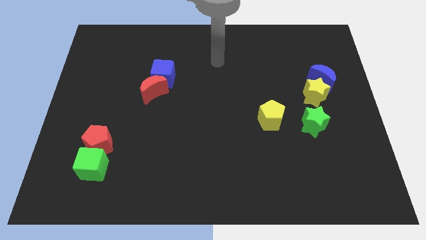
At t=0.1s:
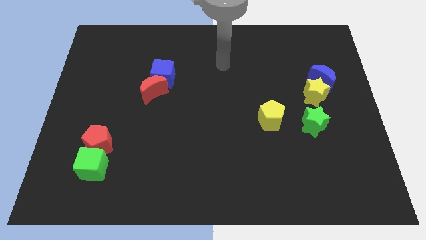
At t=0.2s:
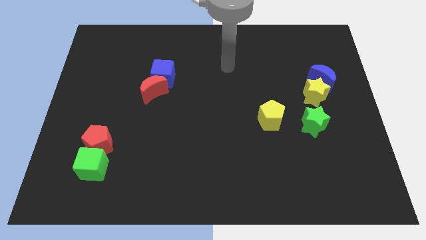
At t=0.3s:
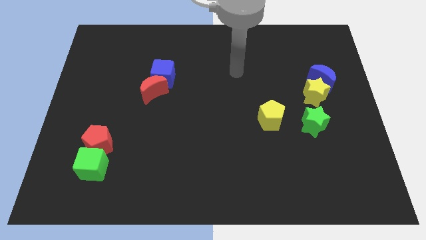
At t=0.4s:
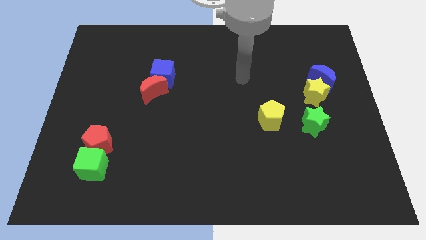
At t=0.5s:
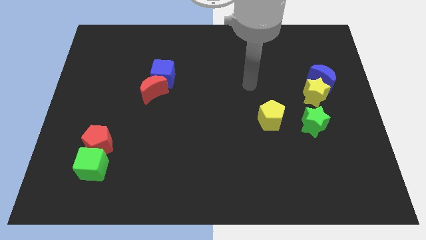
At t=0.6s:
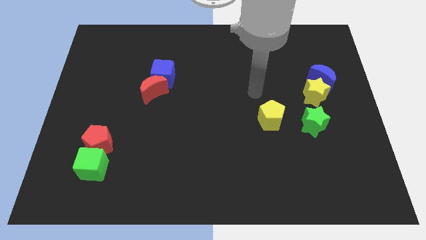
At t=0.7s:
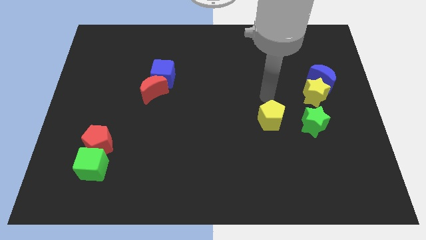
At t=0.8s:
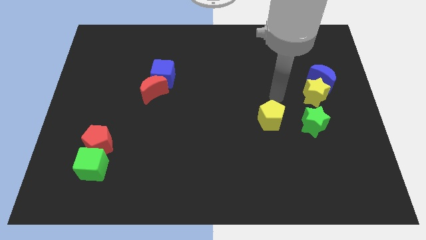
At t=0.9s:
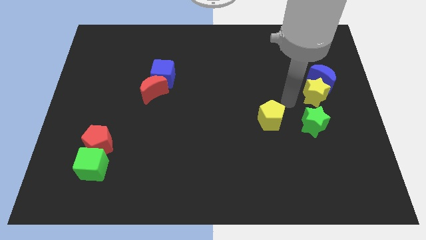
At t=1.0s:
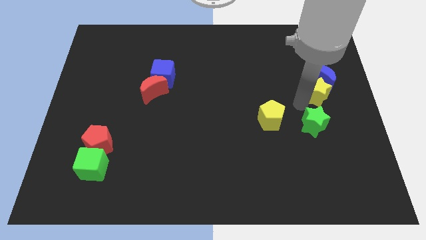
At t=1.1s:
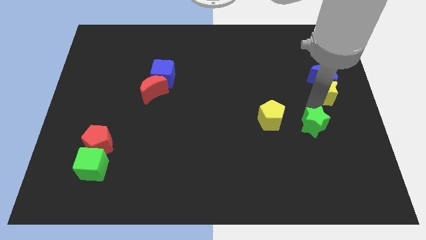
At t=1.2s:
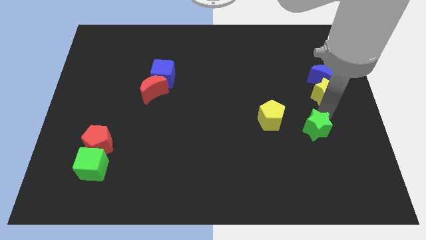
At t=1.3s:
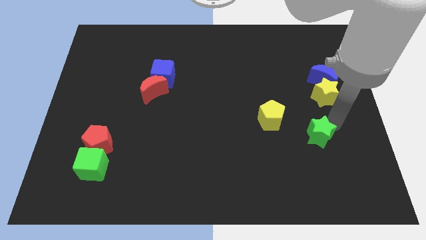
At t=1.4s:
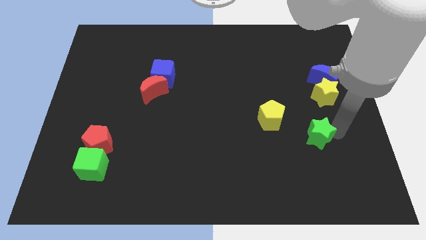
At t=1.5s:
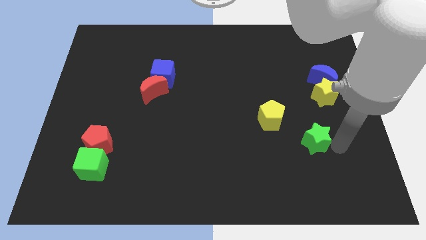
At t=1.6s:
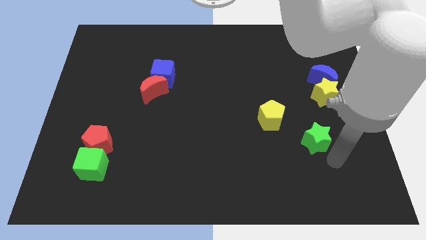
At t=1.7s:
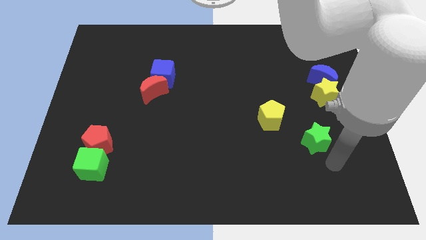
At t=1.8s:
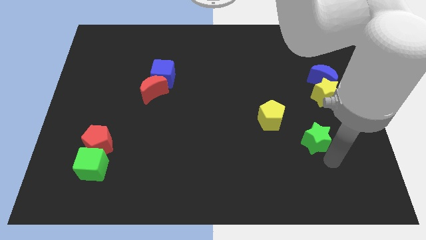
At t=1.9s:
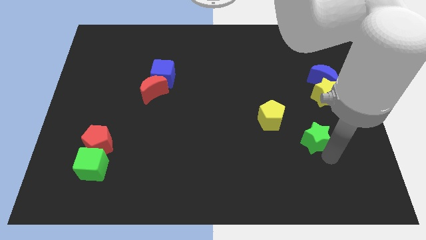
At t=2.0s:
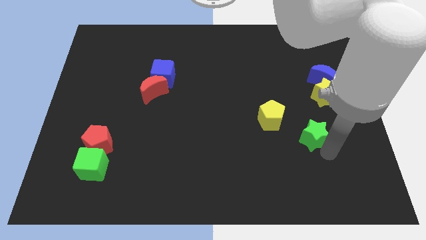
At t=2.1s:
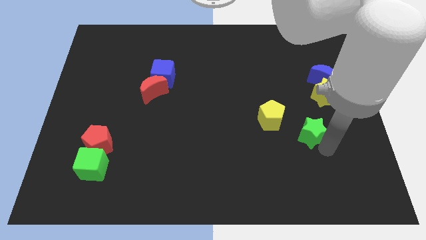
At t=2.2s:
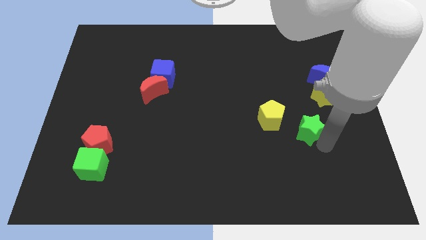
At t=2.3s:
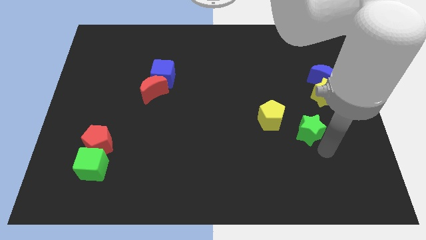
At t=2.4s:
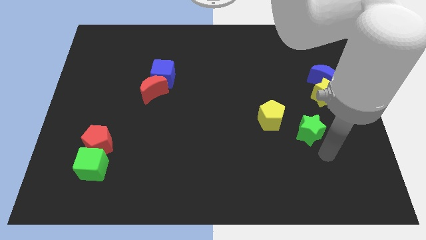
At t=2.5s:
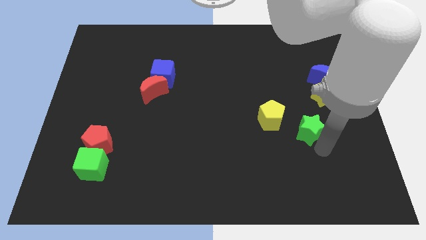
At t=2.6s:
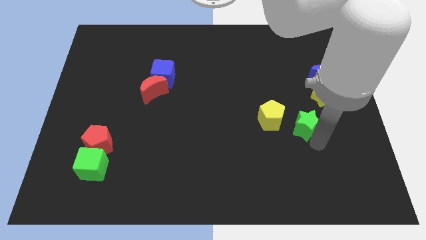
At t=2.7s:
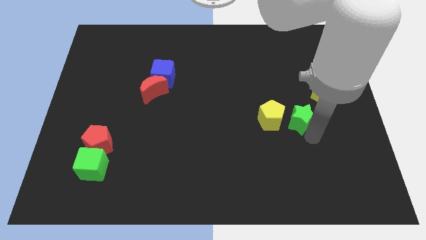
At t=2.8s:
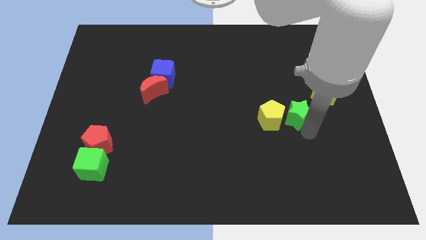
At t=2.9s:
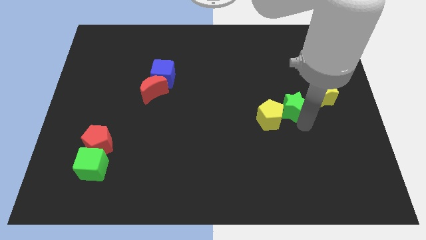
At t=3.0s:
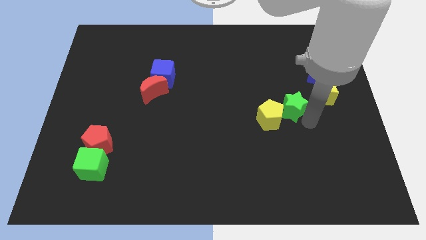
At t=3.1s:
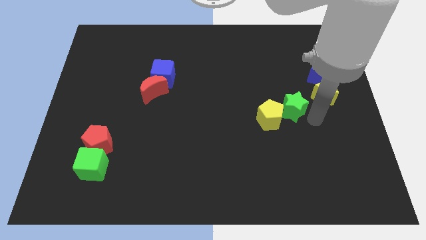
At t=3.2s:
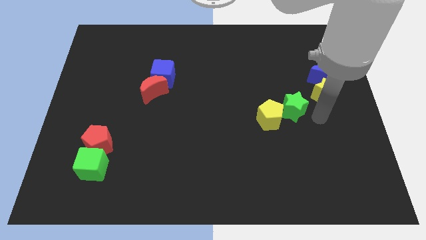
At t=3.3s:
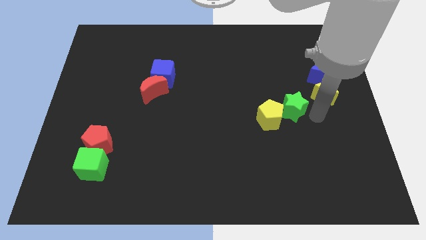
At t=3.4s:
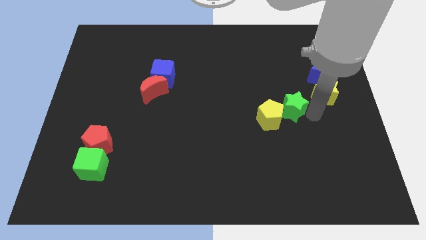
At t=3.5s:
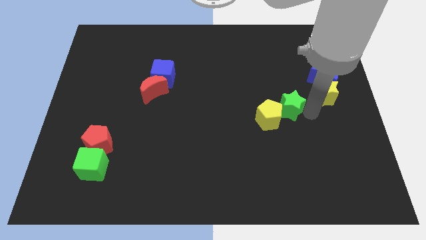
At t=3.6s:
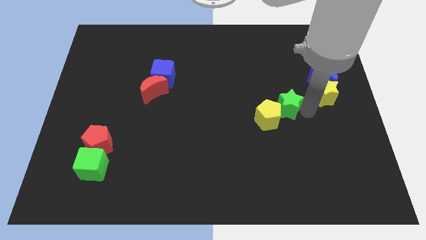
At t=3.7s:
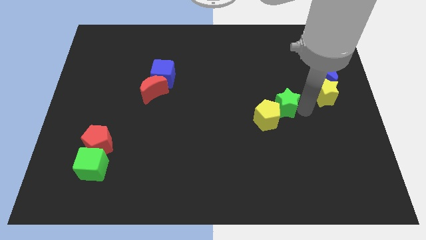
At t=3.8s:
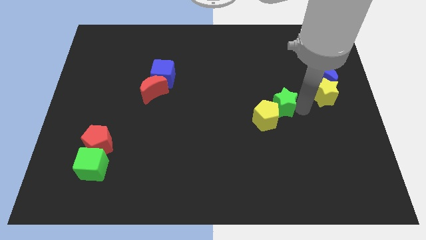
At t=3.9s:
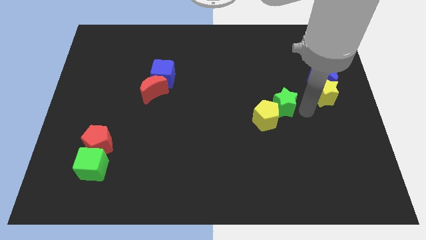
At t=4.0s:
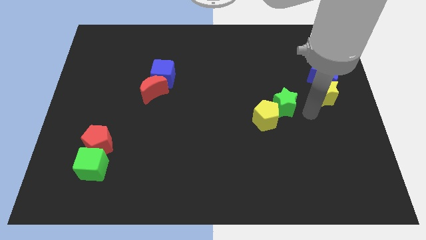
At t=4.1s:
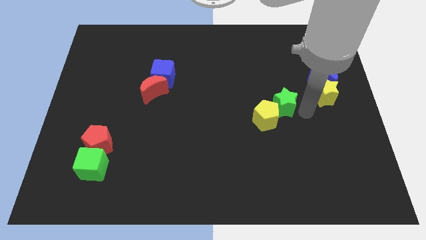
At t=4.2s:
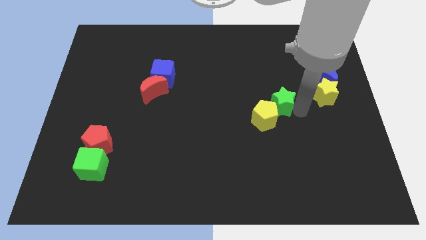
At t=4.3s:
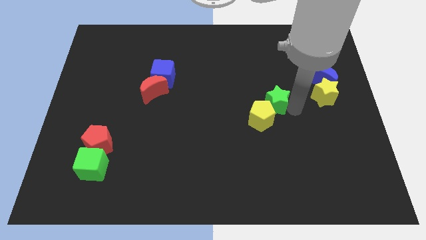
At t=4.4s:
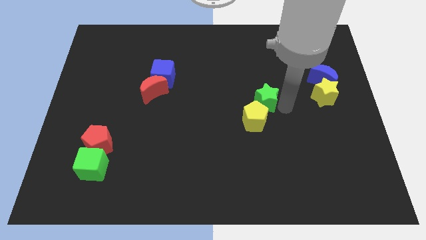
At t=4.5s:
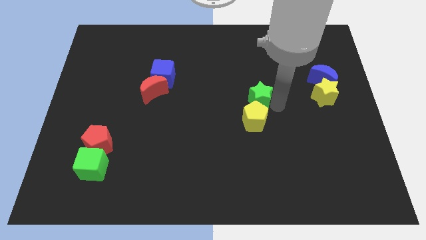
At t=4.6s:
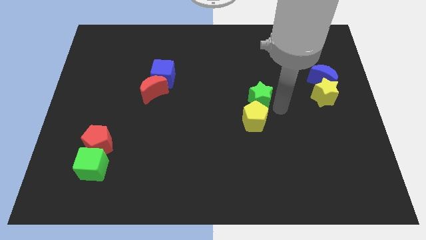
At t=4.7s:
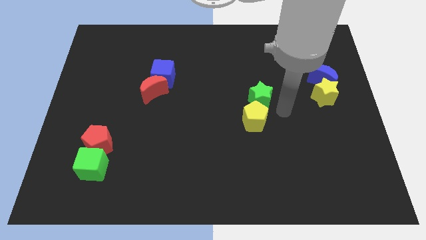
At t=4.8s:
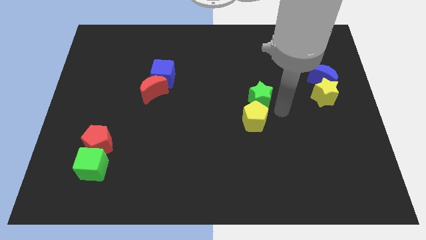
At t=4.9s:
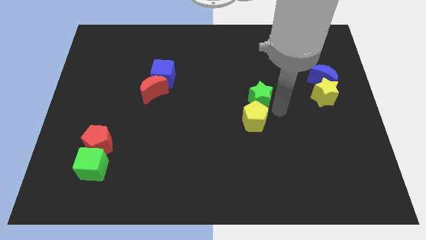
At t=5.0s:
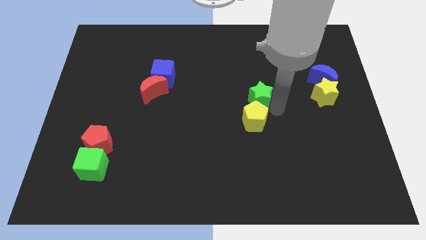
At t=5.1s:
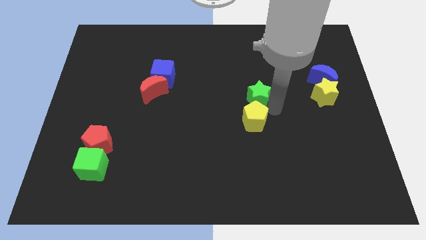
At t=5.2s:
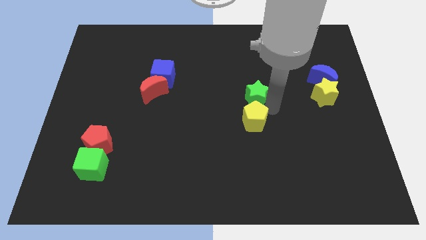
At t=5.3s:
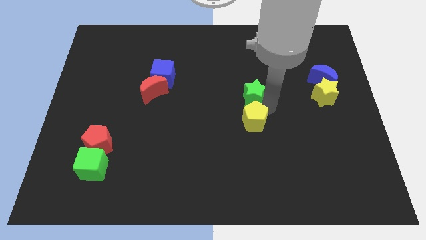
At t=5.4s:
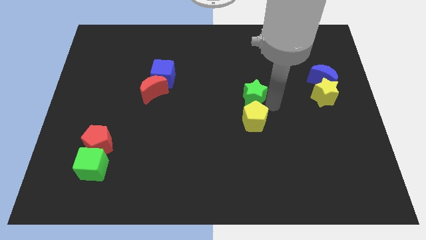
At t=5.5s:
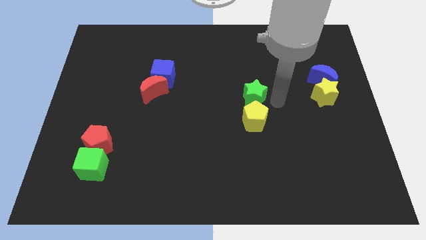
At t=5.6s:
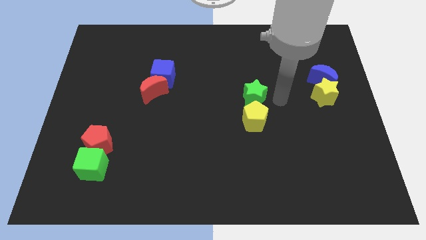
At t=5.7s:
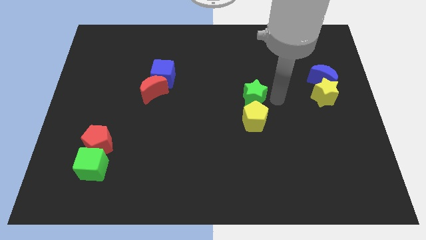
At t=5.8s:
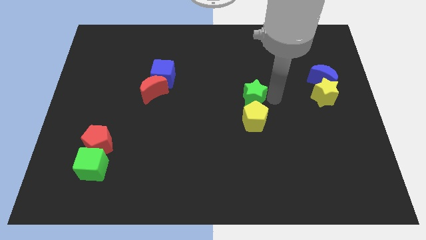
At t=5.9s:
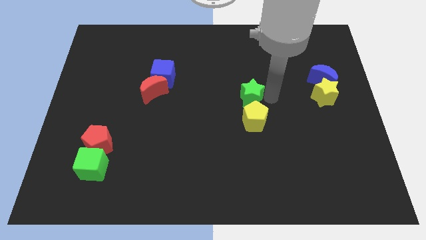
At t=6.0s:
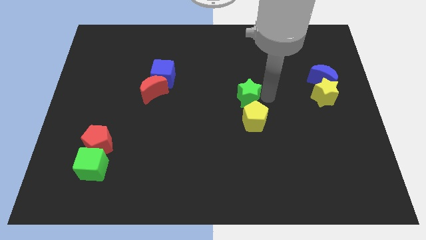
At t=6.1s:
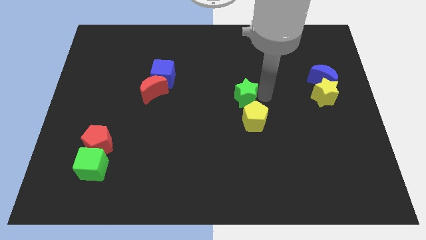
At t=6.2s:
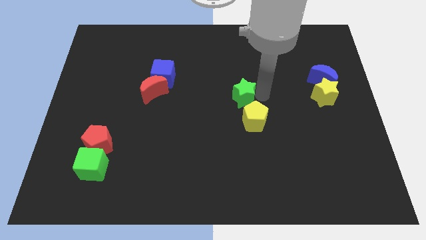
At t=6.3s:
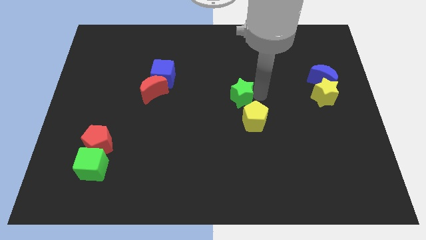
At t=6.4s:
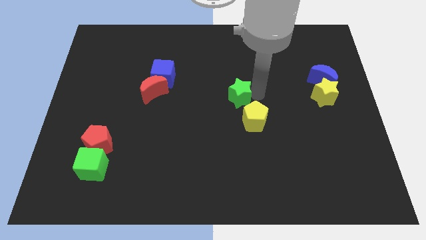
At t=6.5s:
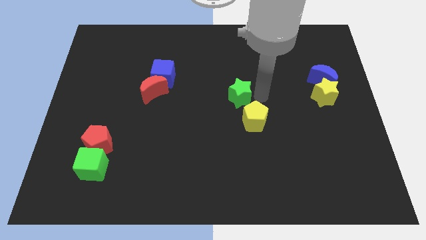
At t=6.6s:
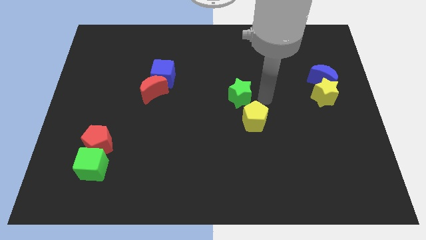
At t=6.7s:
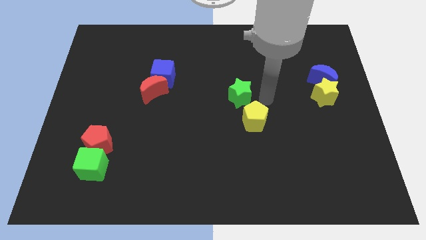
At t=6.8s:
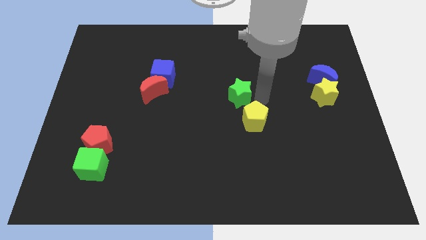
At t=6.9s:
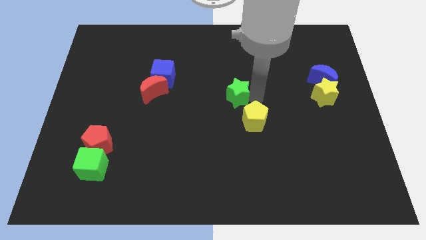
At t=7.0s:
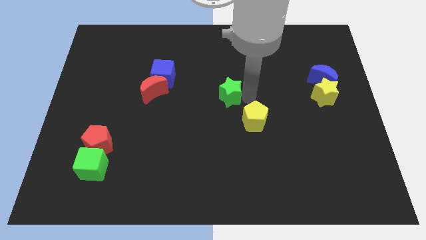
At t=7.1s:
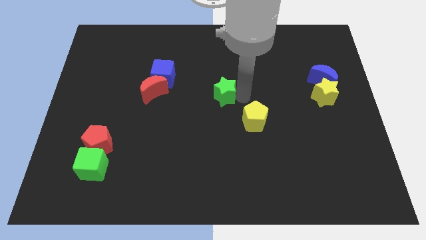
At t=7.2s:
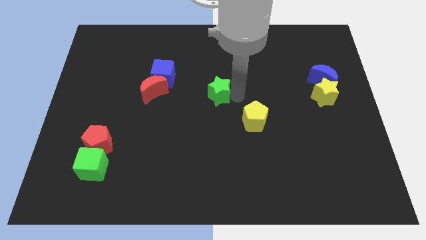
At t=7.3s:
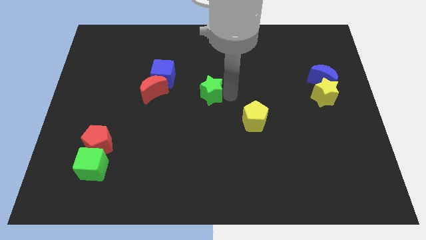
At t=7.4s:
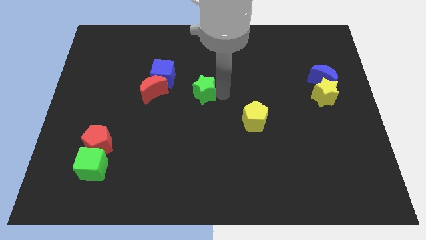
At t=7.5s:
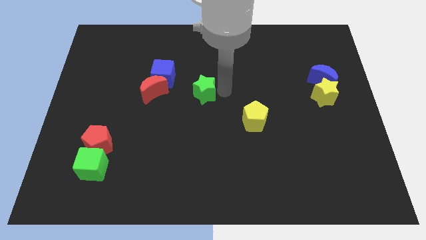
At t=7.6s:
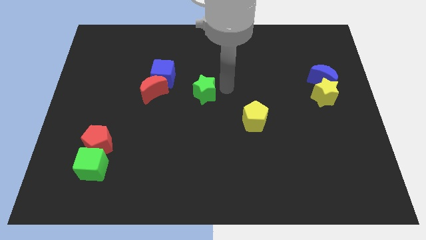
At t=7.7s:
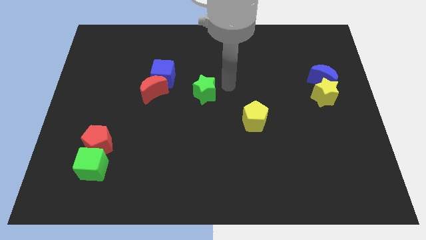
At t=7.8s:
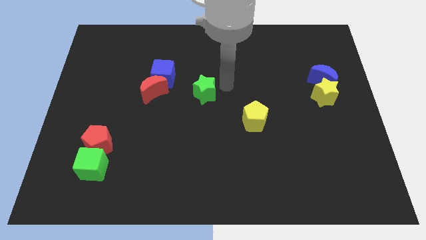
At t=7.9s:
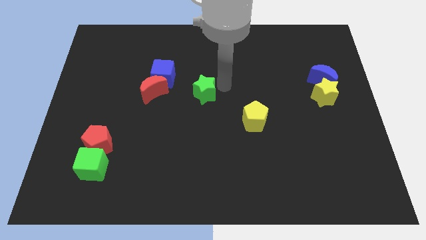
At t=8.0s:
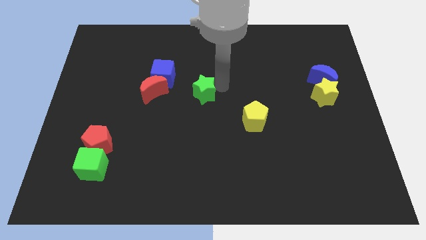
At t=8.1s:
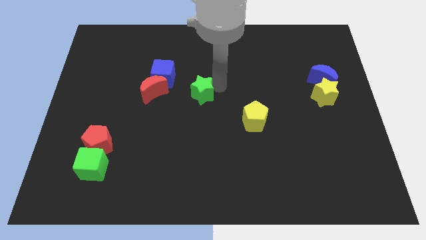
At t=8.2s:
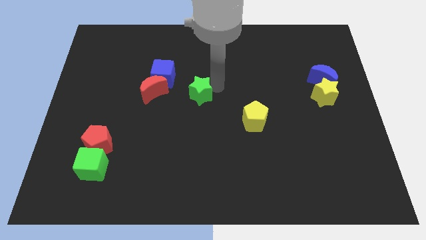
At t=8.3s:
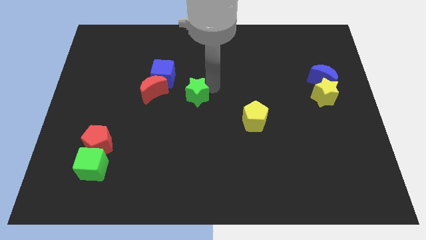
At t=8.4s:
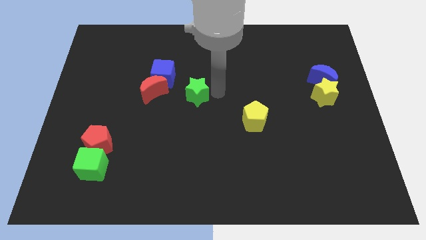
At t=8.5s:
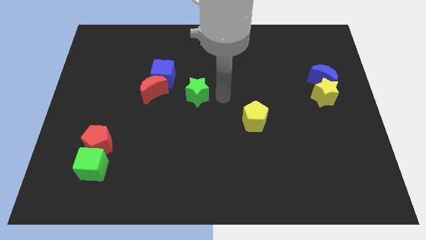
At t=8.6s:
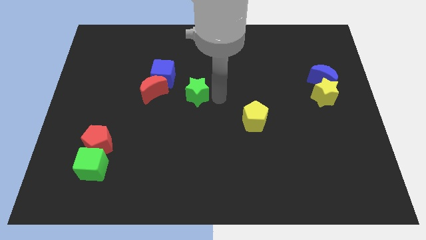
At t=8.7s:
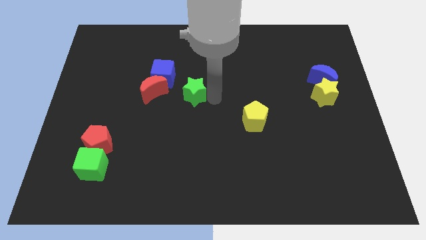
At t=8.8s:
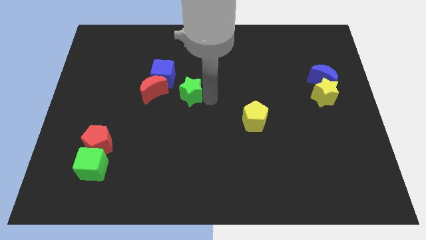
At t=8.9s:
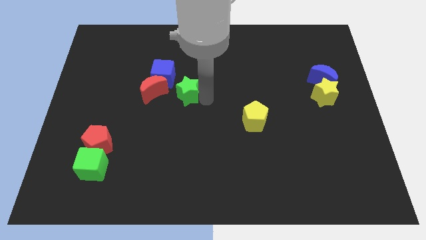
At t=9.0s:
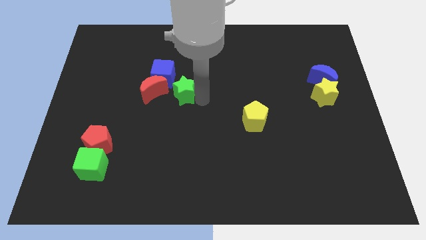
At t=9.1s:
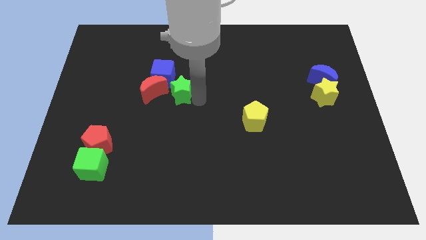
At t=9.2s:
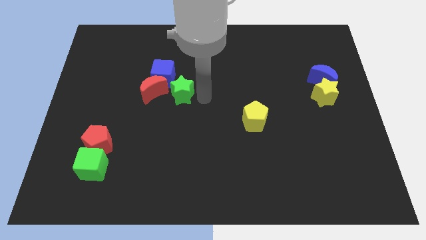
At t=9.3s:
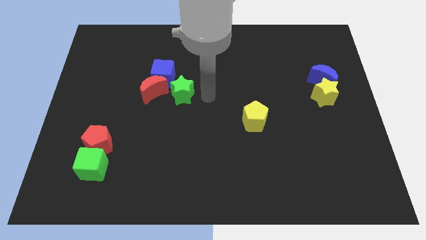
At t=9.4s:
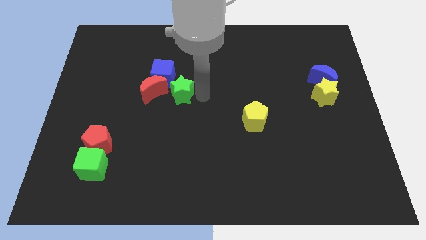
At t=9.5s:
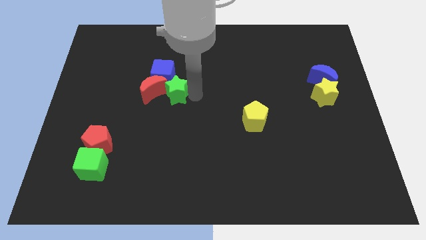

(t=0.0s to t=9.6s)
slide the green star next to the red moon
